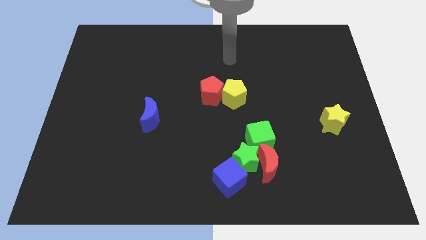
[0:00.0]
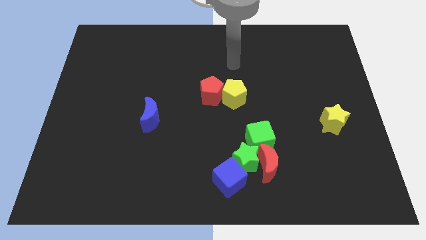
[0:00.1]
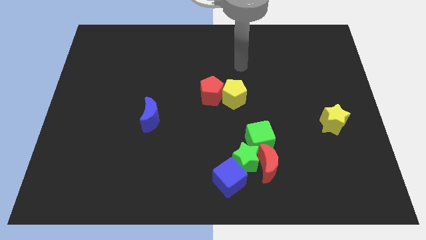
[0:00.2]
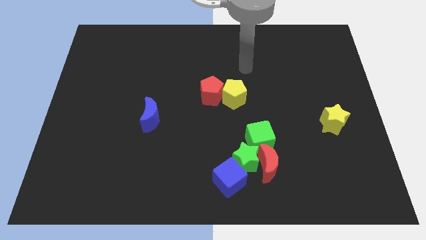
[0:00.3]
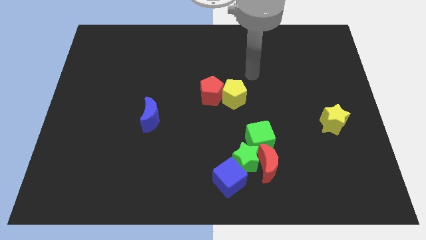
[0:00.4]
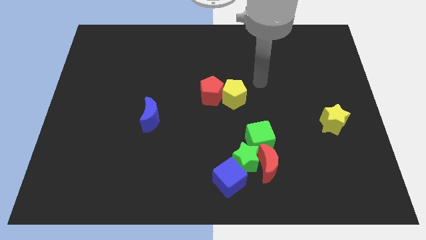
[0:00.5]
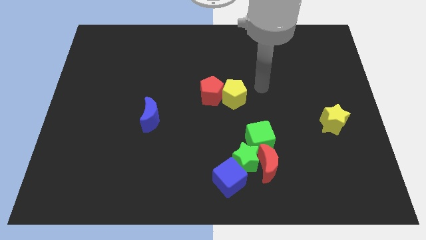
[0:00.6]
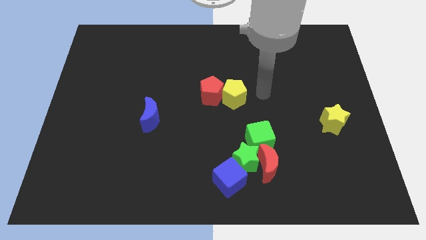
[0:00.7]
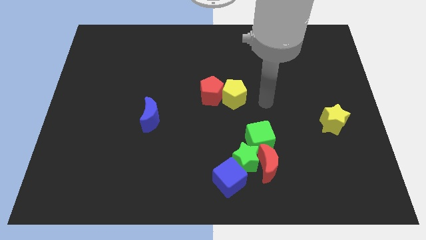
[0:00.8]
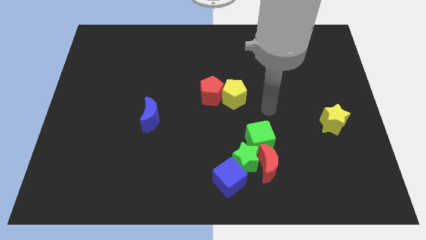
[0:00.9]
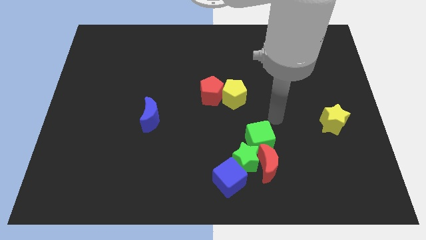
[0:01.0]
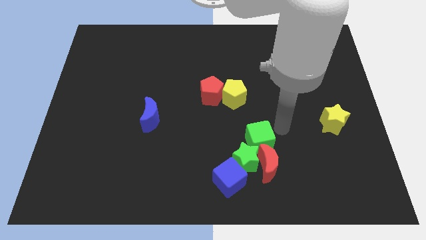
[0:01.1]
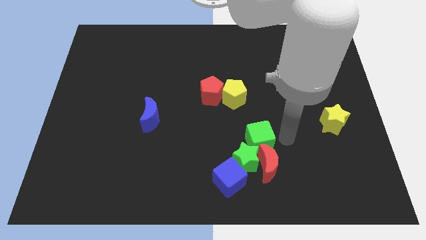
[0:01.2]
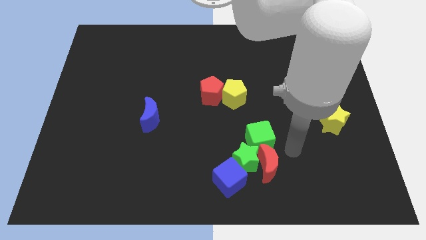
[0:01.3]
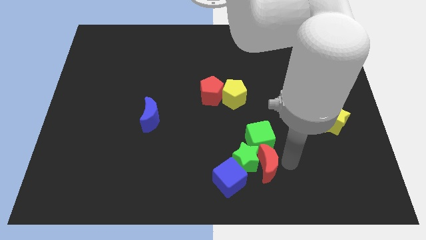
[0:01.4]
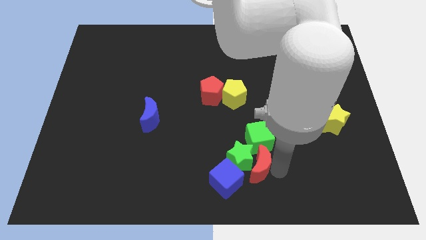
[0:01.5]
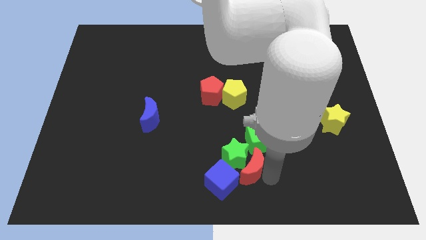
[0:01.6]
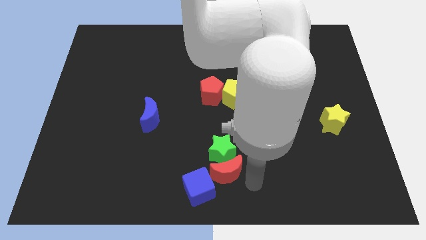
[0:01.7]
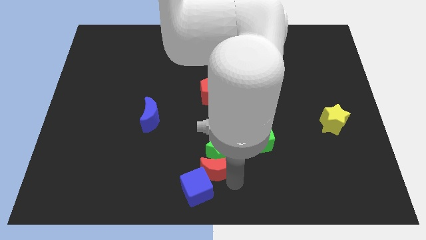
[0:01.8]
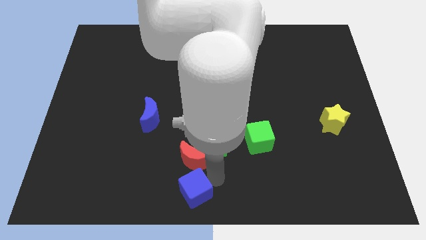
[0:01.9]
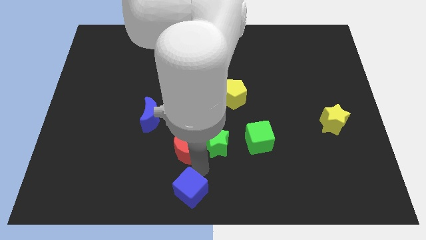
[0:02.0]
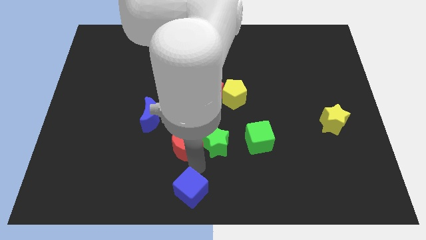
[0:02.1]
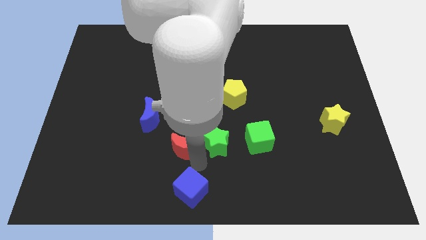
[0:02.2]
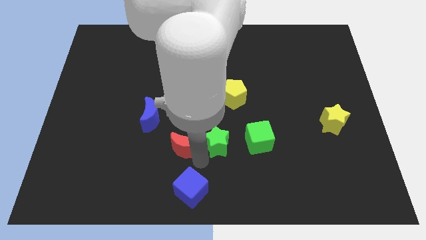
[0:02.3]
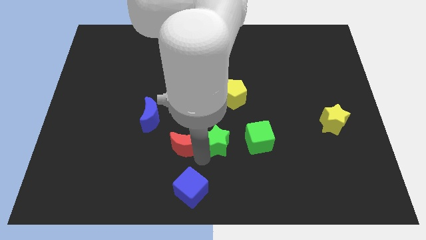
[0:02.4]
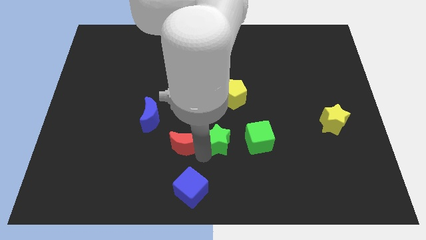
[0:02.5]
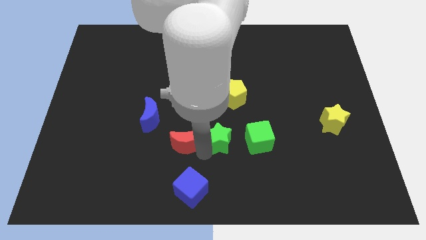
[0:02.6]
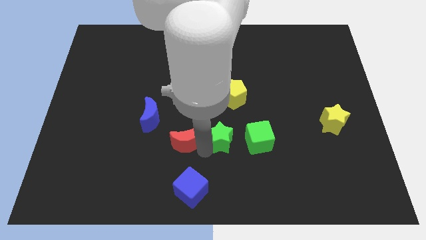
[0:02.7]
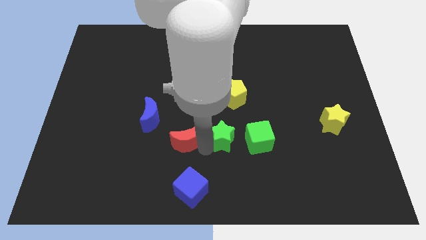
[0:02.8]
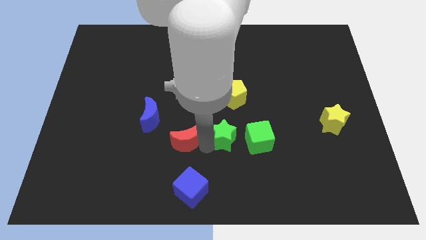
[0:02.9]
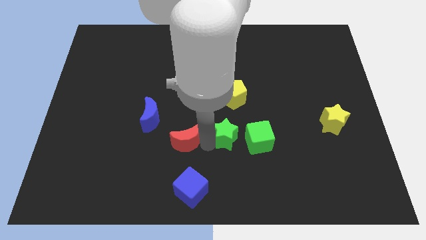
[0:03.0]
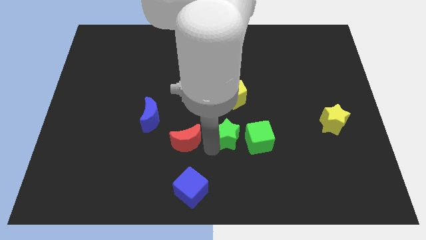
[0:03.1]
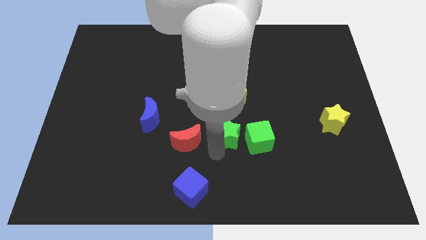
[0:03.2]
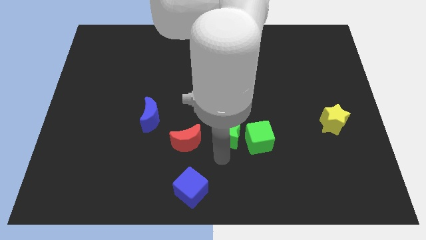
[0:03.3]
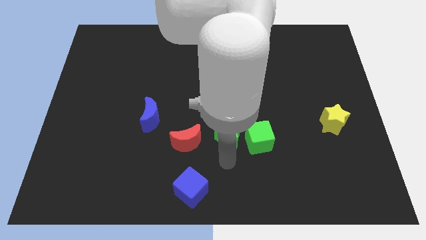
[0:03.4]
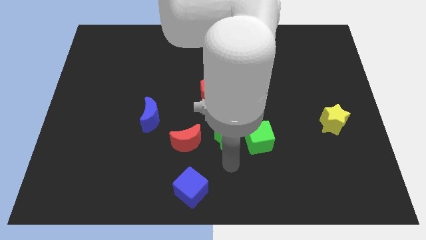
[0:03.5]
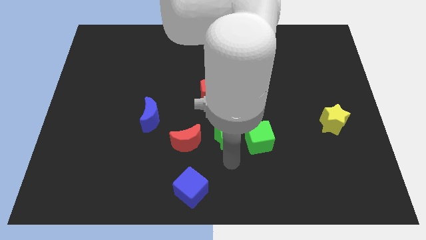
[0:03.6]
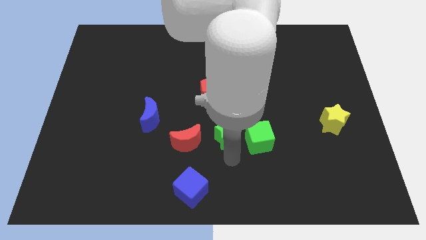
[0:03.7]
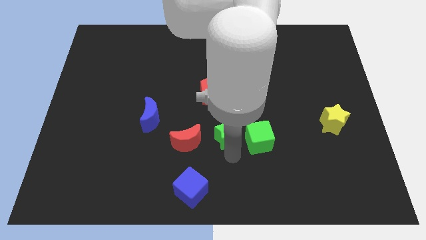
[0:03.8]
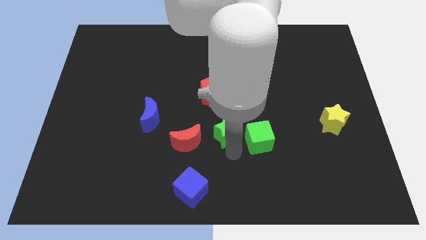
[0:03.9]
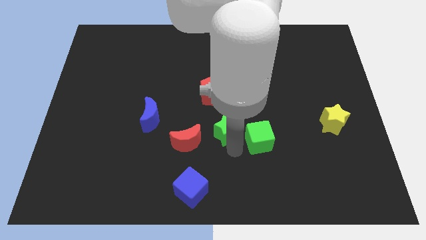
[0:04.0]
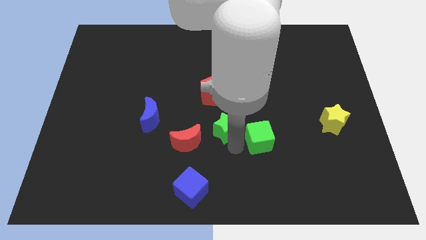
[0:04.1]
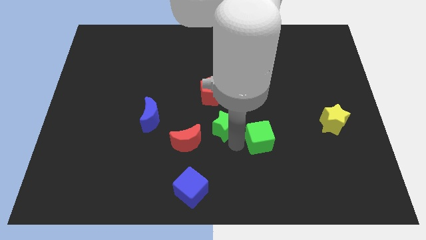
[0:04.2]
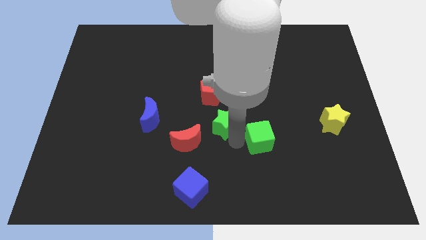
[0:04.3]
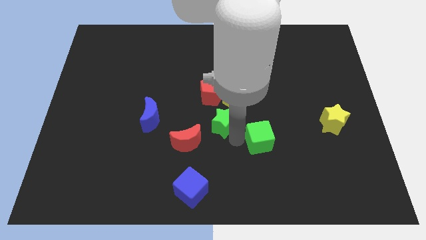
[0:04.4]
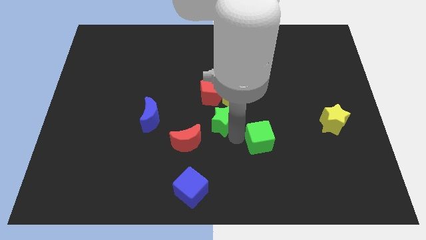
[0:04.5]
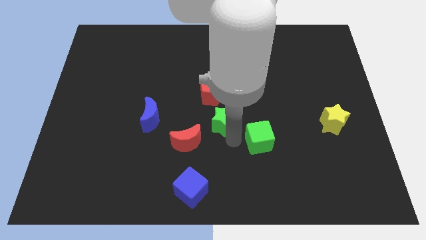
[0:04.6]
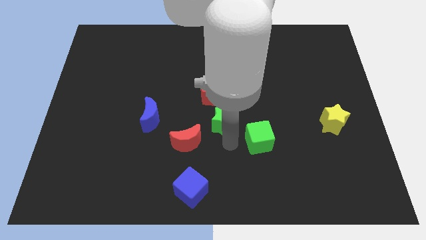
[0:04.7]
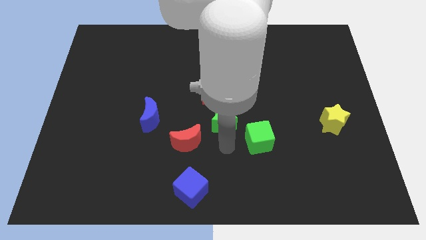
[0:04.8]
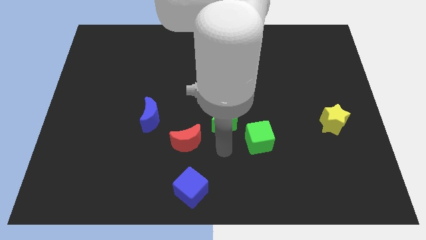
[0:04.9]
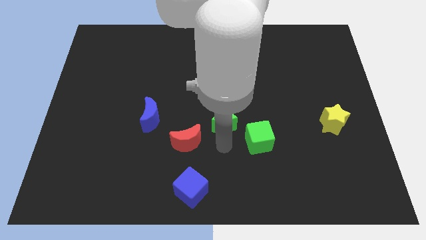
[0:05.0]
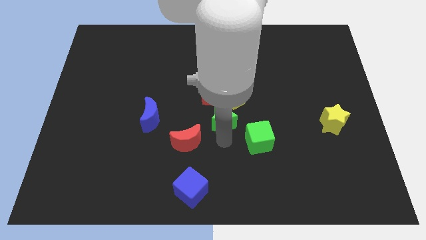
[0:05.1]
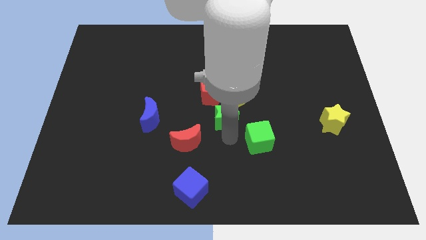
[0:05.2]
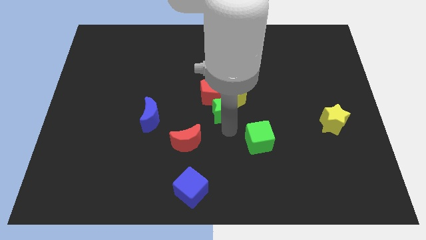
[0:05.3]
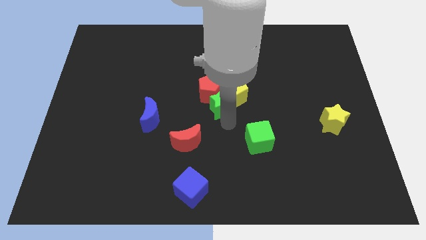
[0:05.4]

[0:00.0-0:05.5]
move the green star towards the red pentagon

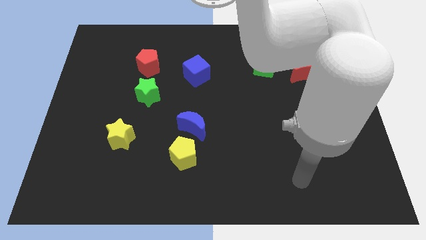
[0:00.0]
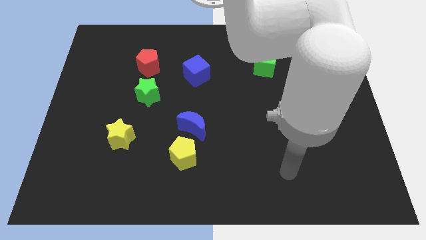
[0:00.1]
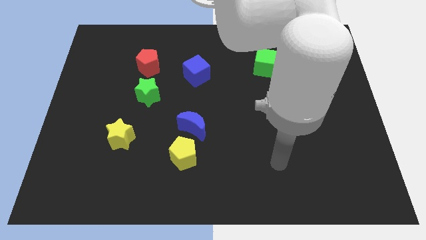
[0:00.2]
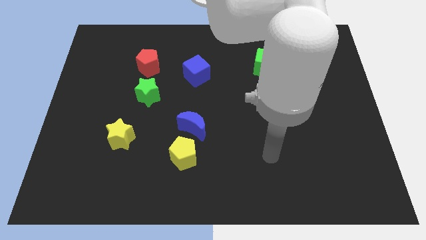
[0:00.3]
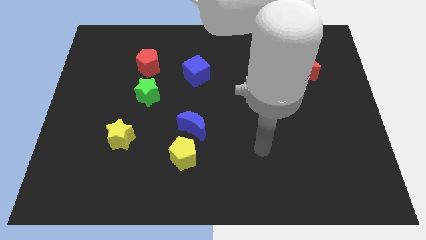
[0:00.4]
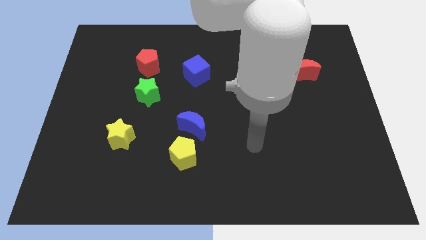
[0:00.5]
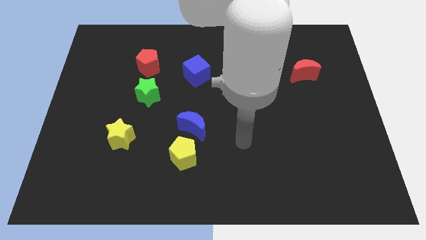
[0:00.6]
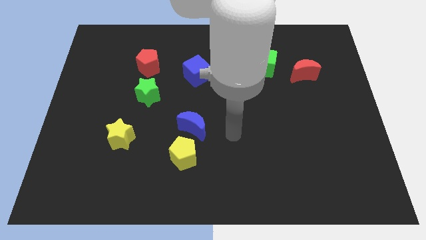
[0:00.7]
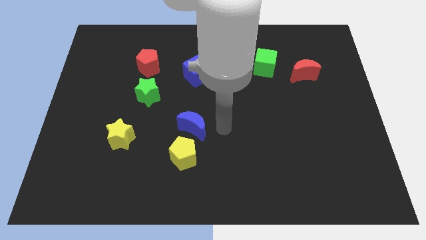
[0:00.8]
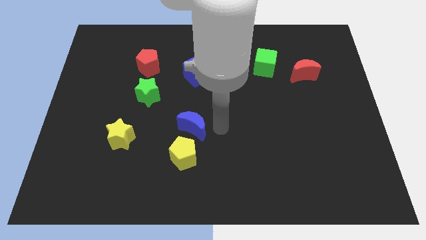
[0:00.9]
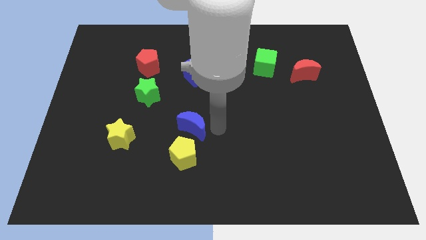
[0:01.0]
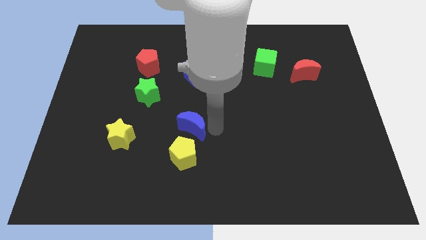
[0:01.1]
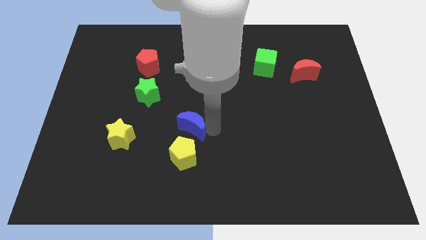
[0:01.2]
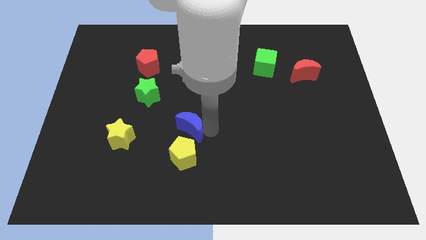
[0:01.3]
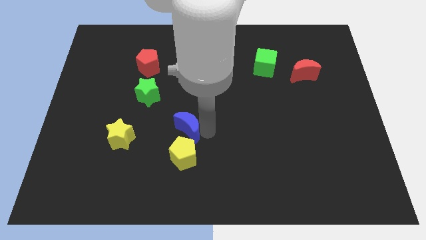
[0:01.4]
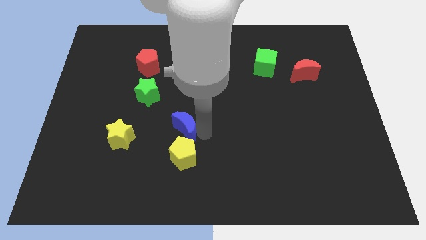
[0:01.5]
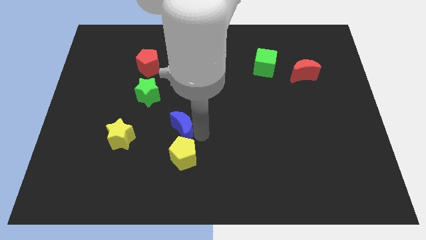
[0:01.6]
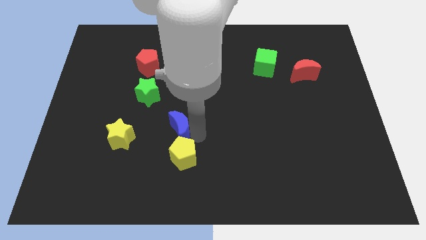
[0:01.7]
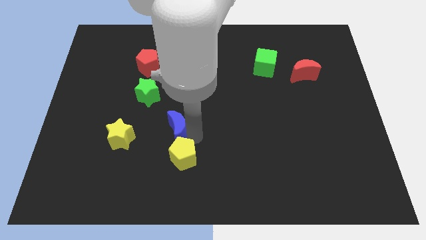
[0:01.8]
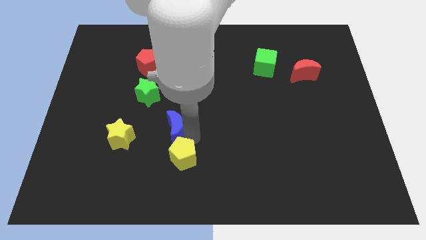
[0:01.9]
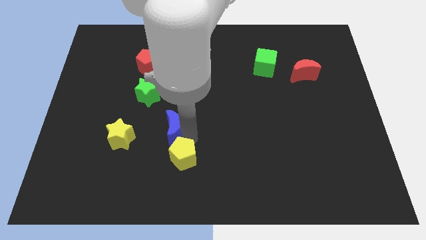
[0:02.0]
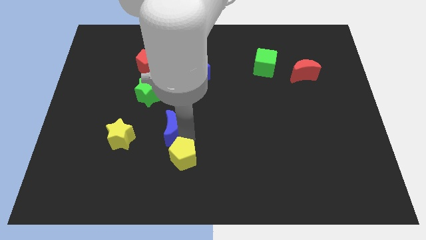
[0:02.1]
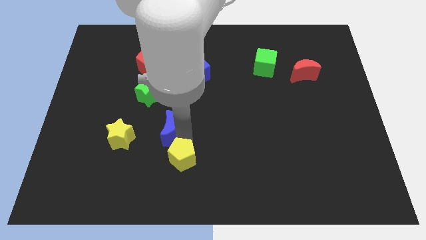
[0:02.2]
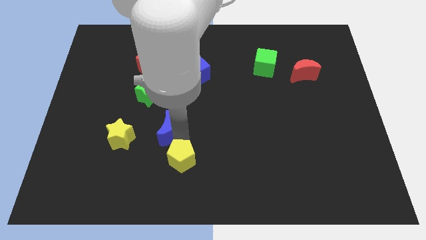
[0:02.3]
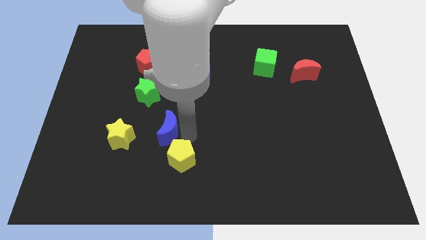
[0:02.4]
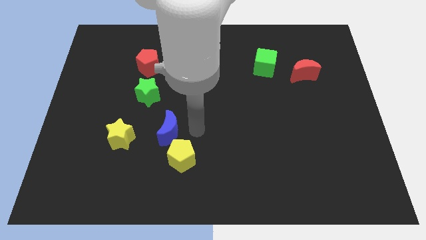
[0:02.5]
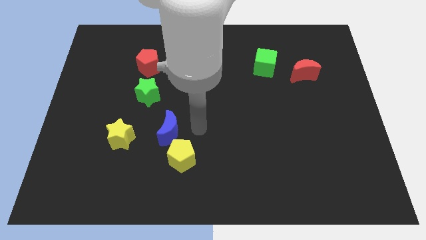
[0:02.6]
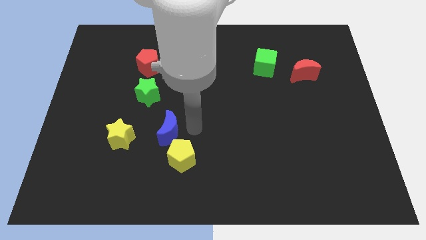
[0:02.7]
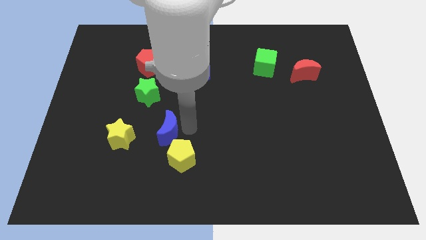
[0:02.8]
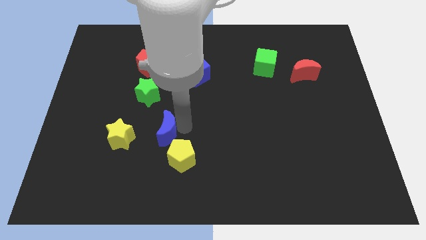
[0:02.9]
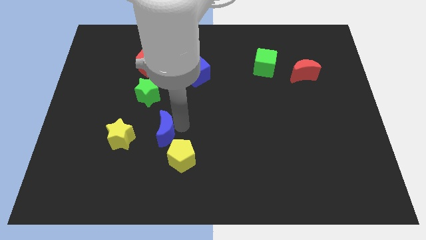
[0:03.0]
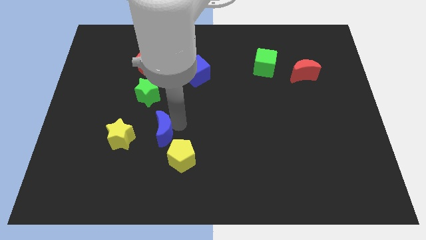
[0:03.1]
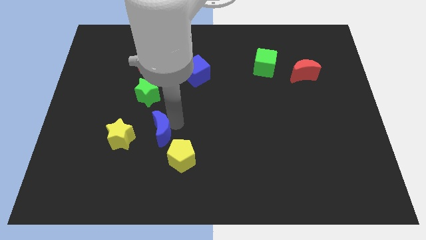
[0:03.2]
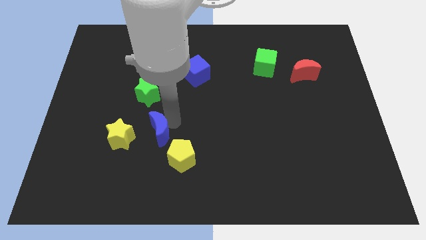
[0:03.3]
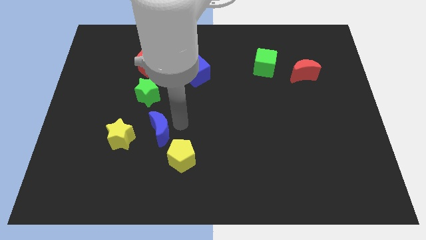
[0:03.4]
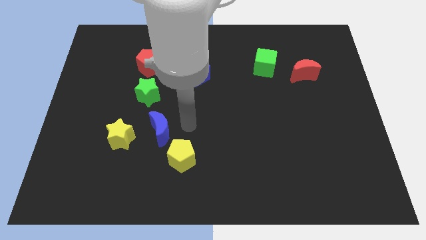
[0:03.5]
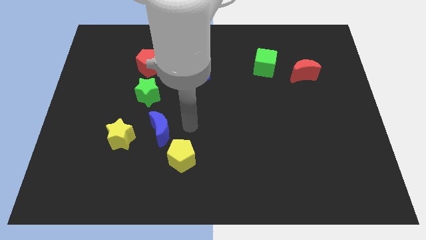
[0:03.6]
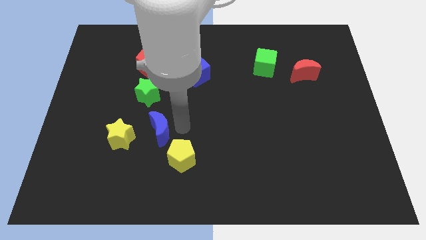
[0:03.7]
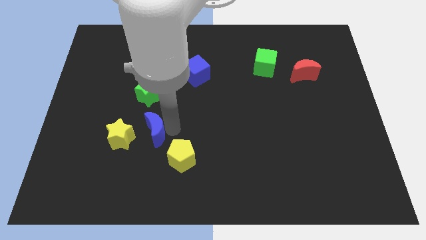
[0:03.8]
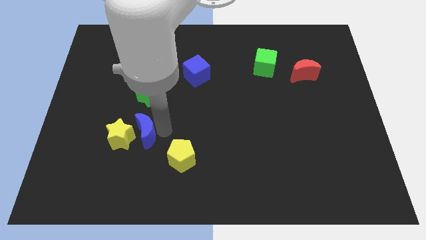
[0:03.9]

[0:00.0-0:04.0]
put the blue moon next to the yellow star
